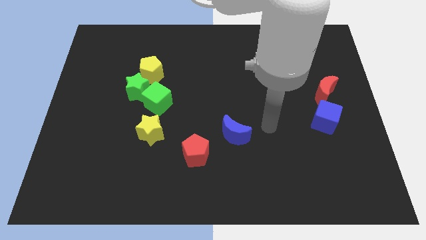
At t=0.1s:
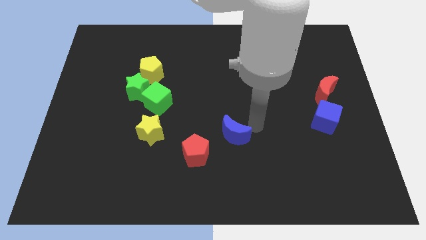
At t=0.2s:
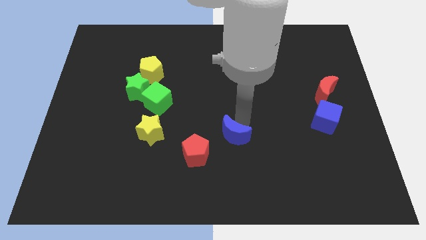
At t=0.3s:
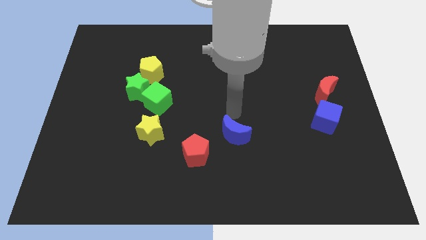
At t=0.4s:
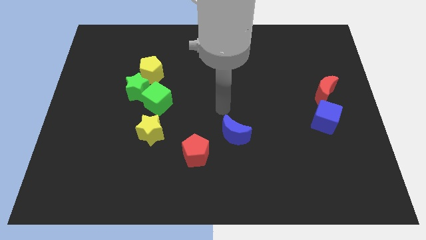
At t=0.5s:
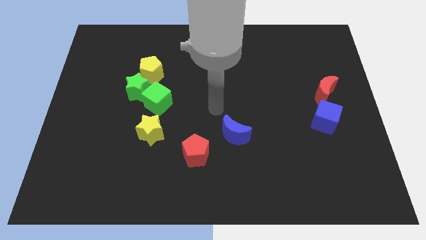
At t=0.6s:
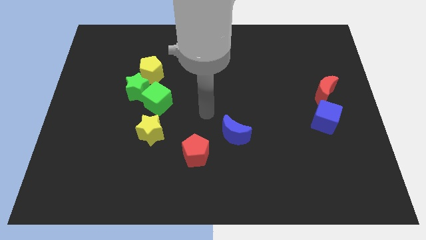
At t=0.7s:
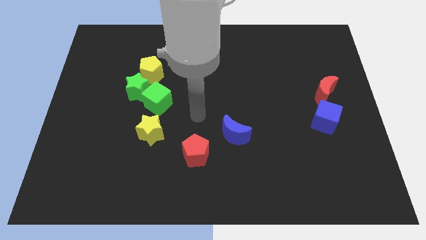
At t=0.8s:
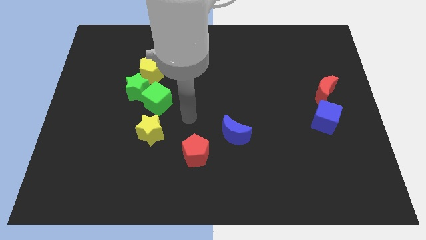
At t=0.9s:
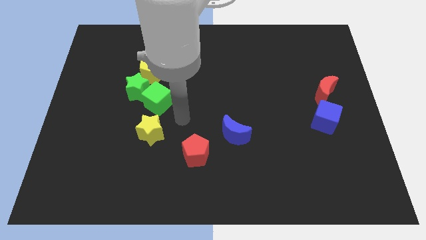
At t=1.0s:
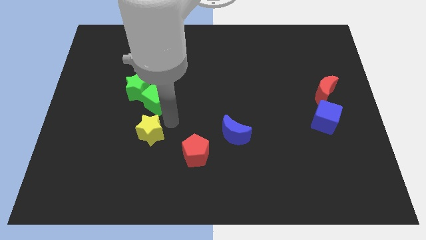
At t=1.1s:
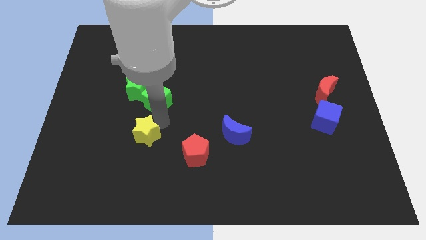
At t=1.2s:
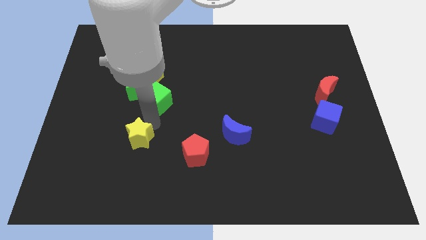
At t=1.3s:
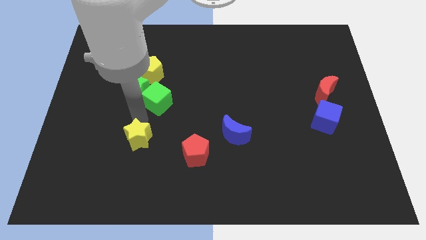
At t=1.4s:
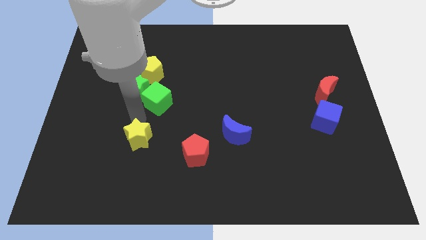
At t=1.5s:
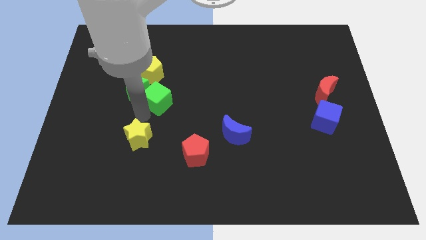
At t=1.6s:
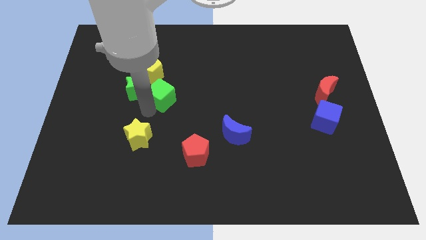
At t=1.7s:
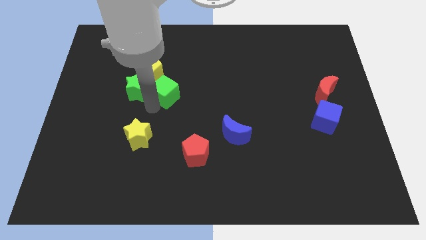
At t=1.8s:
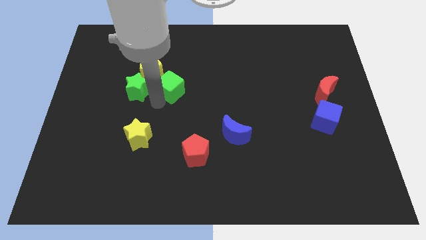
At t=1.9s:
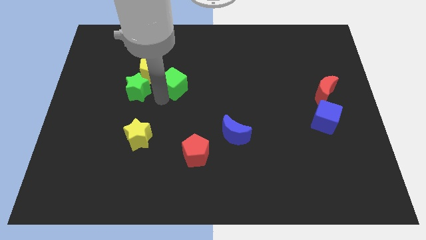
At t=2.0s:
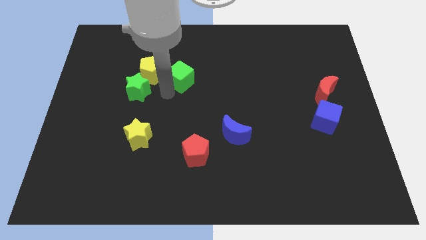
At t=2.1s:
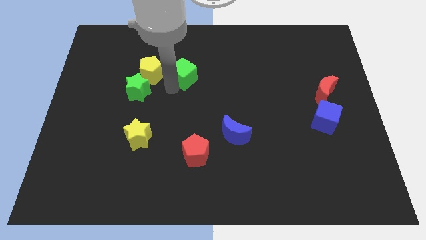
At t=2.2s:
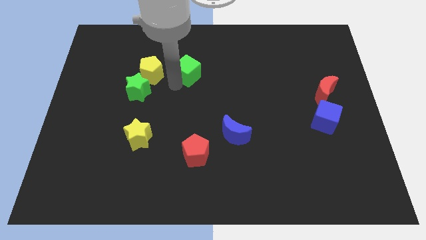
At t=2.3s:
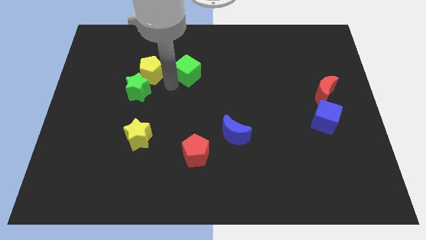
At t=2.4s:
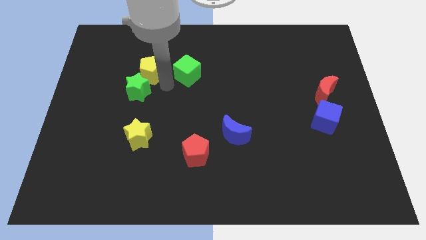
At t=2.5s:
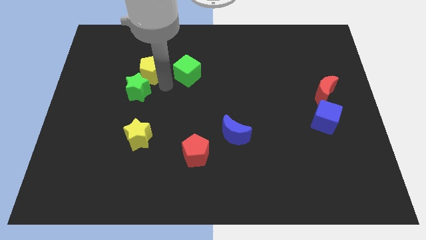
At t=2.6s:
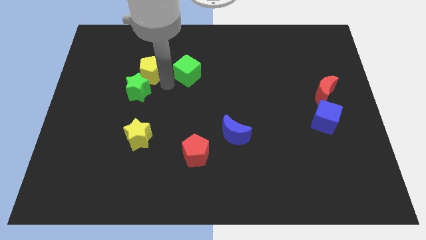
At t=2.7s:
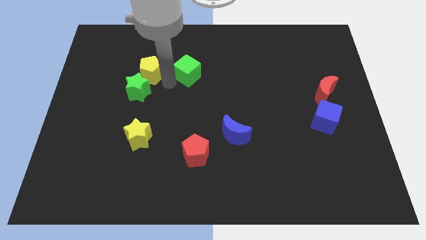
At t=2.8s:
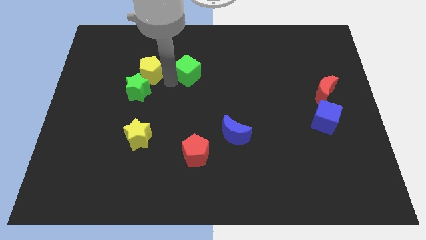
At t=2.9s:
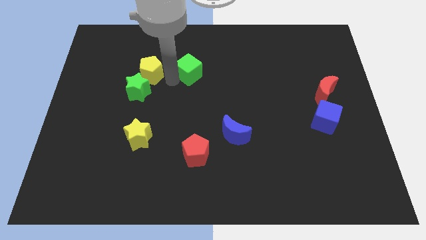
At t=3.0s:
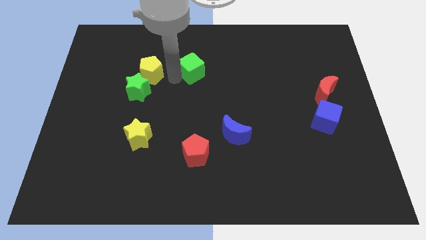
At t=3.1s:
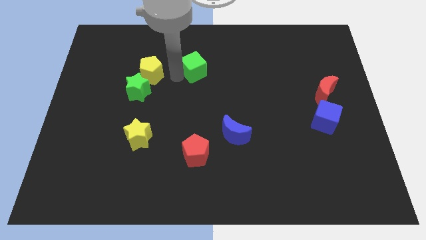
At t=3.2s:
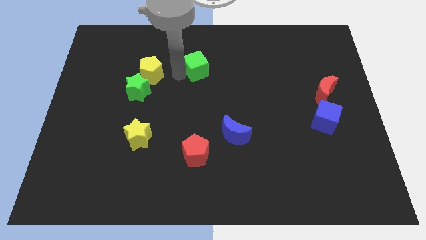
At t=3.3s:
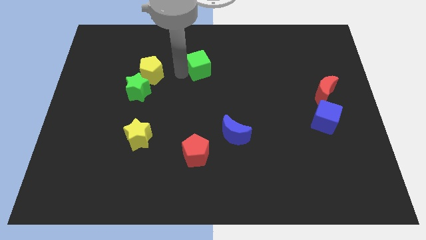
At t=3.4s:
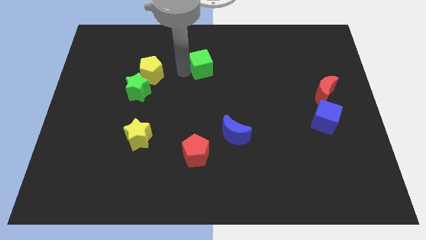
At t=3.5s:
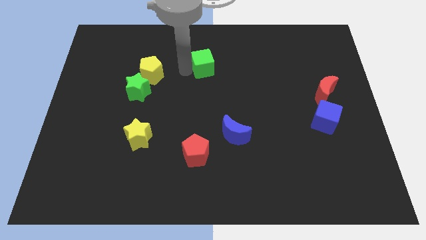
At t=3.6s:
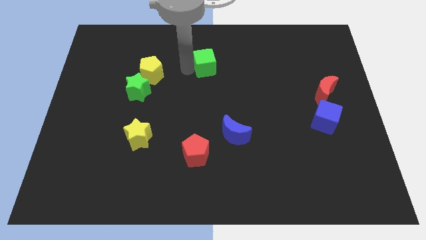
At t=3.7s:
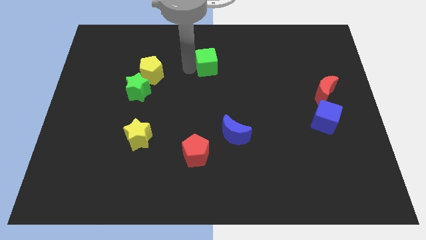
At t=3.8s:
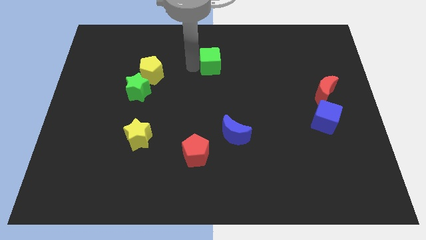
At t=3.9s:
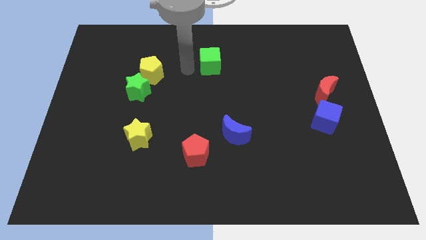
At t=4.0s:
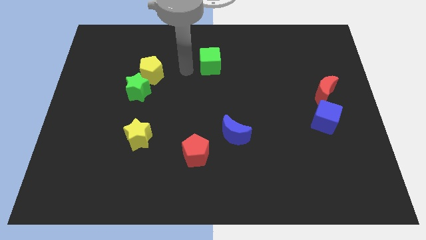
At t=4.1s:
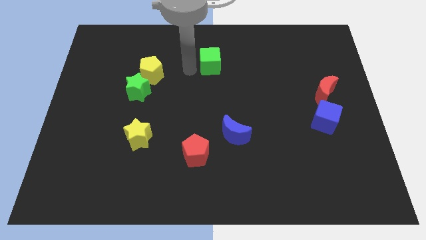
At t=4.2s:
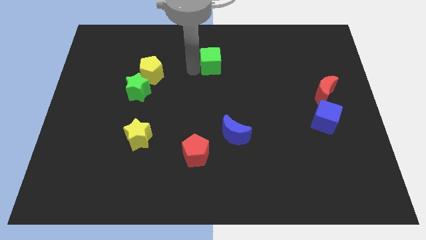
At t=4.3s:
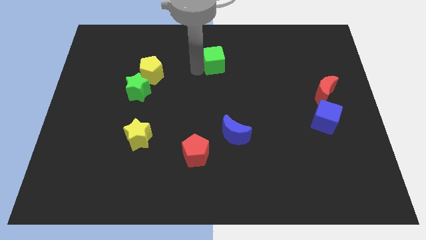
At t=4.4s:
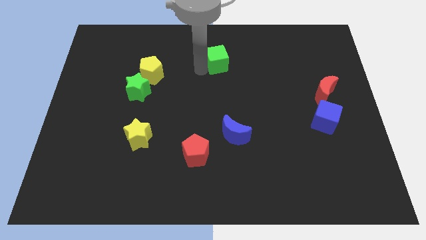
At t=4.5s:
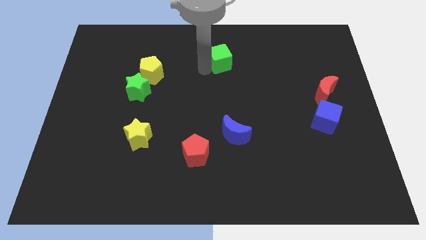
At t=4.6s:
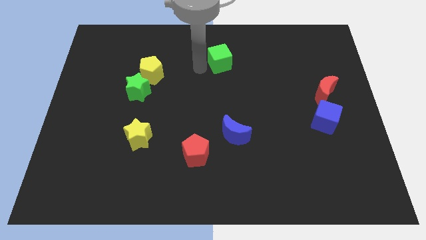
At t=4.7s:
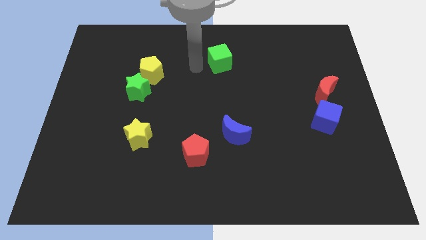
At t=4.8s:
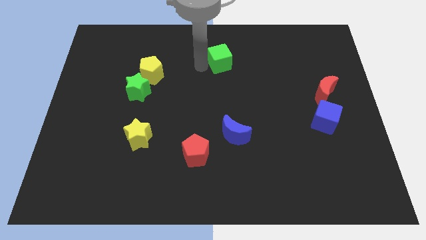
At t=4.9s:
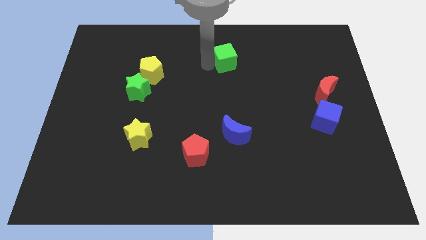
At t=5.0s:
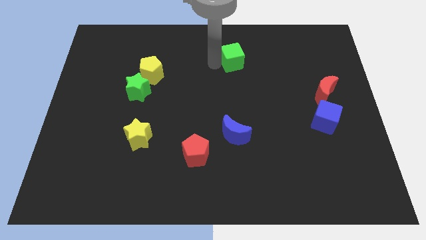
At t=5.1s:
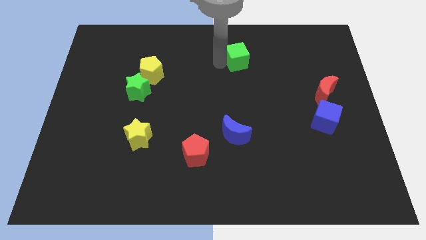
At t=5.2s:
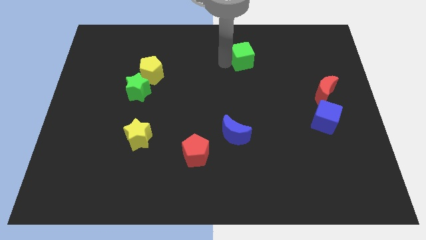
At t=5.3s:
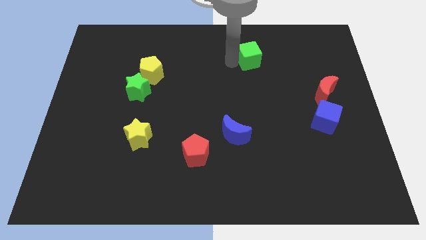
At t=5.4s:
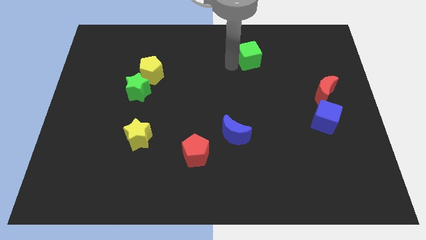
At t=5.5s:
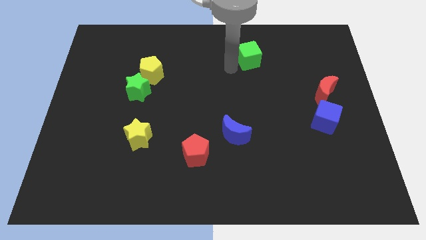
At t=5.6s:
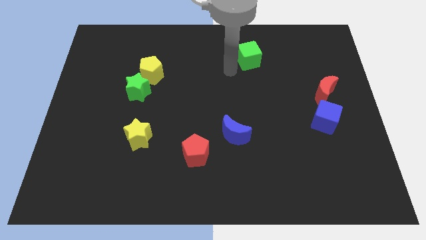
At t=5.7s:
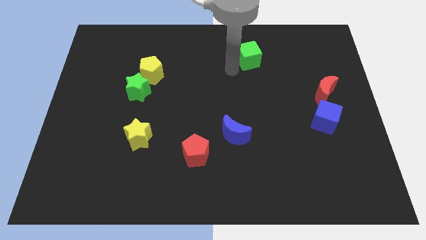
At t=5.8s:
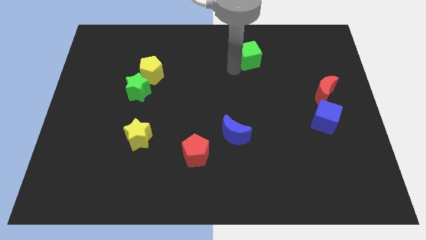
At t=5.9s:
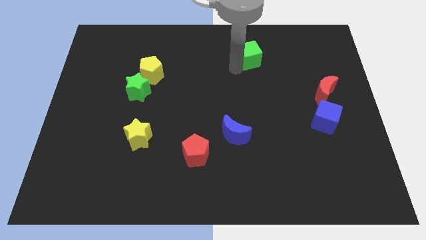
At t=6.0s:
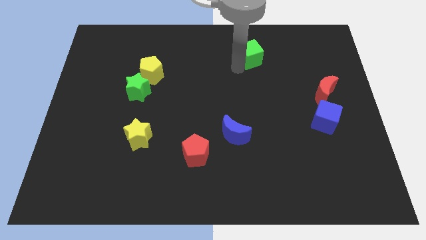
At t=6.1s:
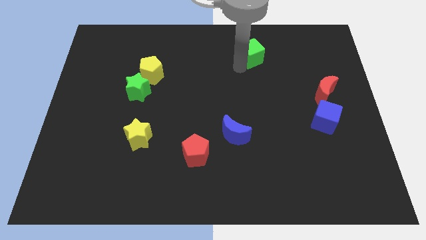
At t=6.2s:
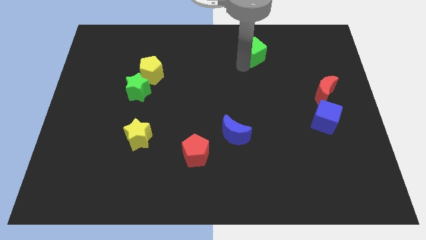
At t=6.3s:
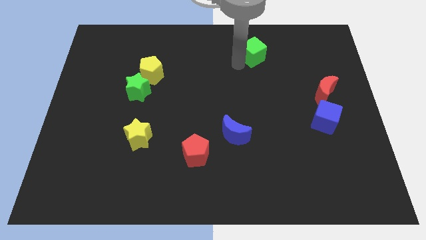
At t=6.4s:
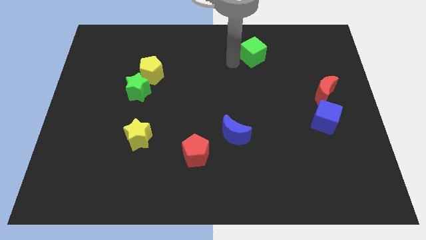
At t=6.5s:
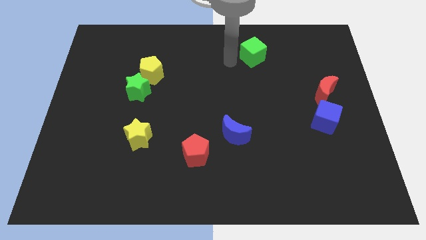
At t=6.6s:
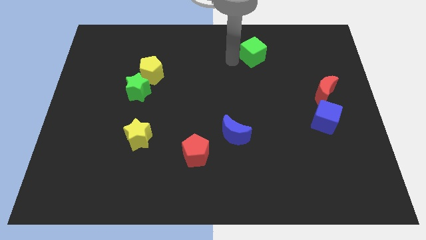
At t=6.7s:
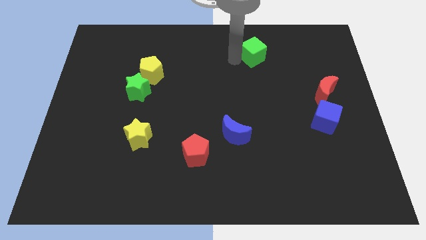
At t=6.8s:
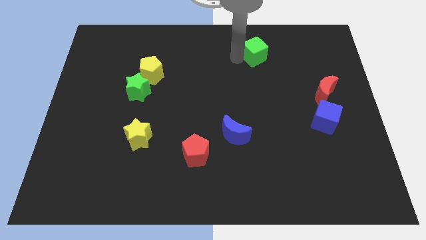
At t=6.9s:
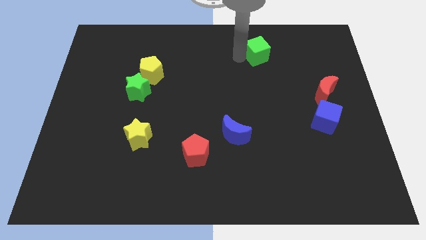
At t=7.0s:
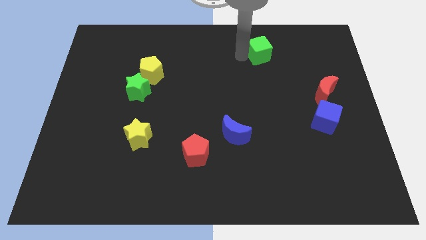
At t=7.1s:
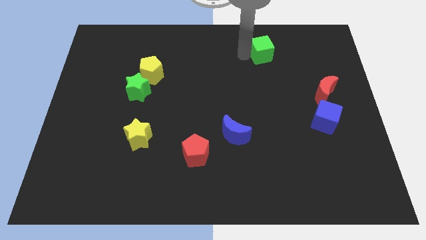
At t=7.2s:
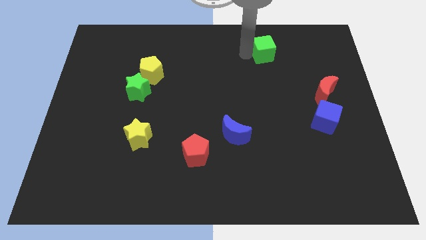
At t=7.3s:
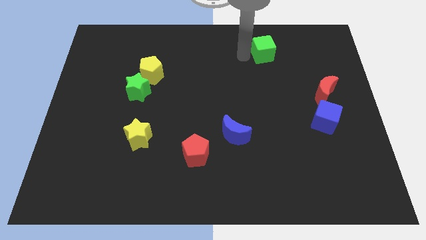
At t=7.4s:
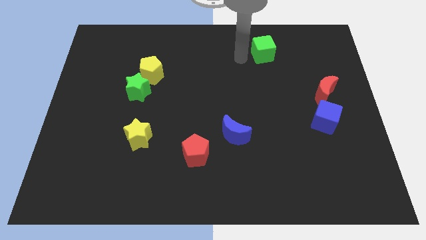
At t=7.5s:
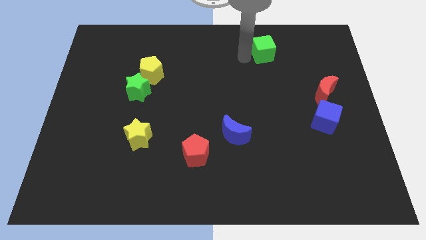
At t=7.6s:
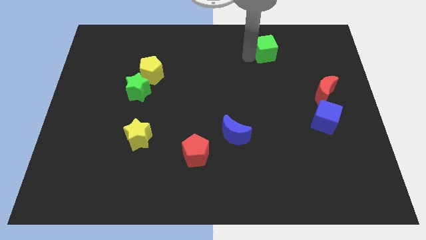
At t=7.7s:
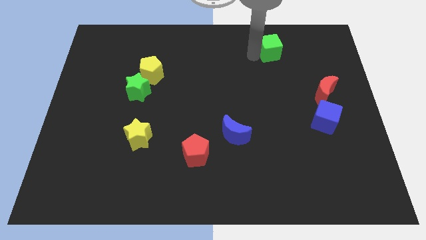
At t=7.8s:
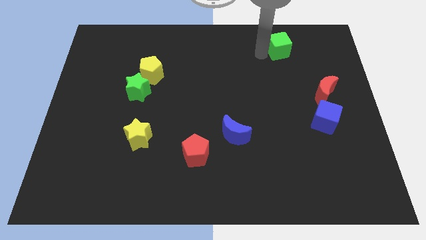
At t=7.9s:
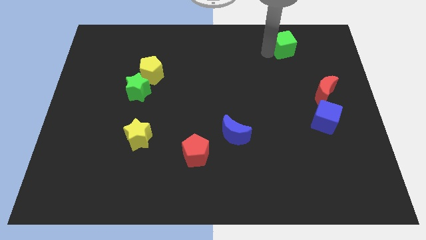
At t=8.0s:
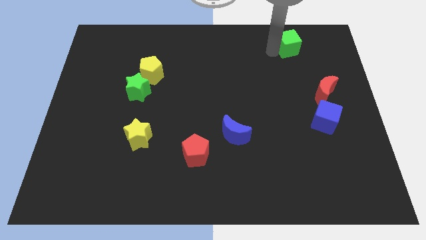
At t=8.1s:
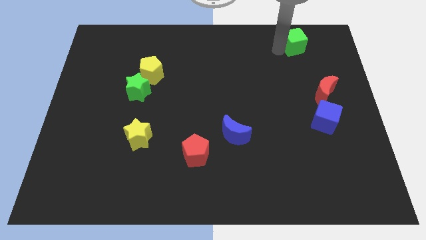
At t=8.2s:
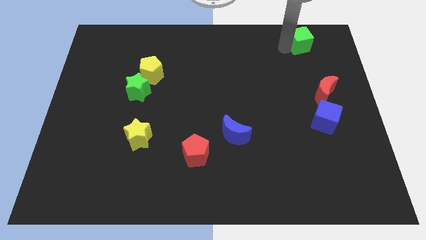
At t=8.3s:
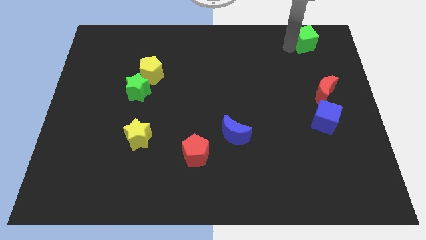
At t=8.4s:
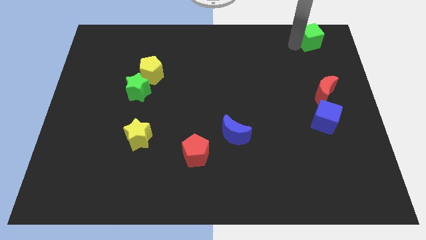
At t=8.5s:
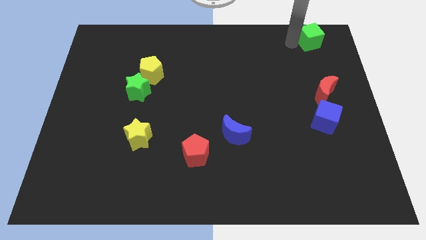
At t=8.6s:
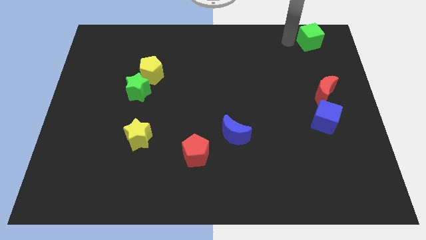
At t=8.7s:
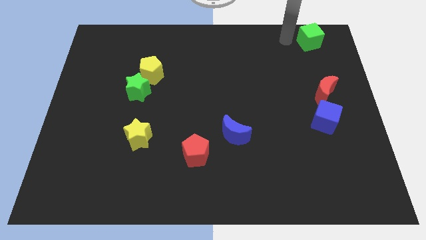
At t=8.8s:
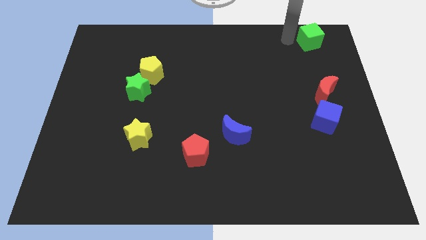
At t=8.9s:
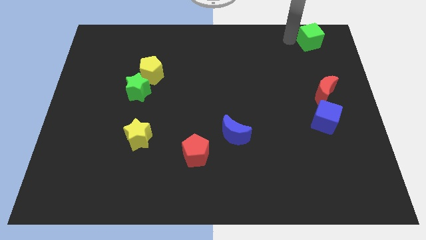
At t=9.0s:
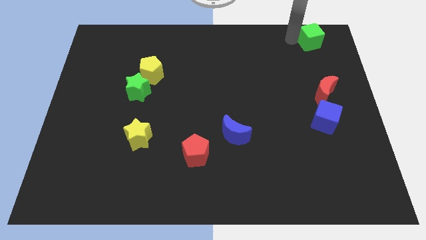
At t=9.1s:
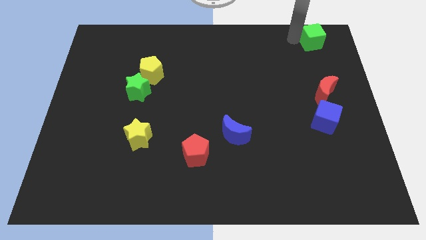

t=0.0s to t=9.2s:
slide the green cube to the top right
